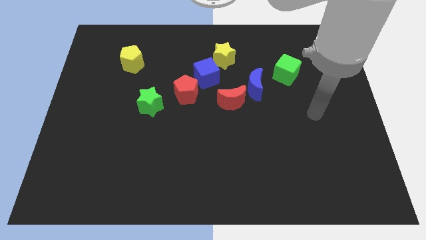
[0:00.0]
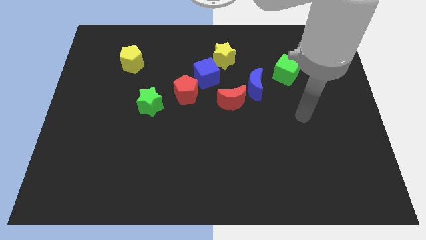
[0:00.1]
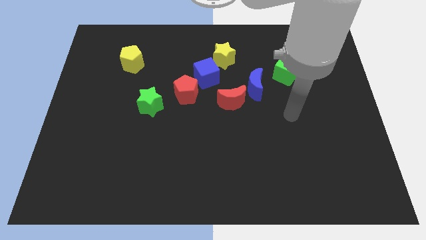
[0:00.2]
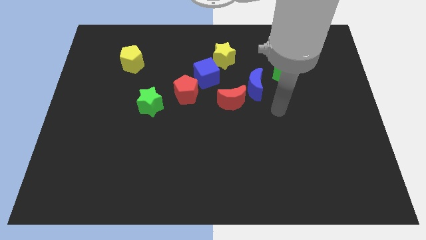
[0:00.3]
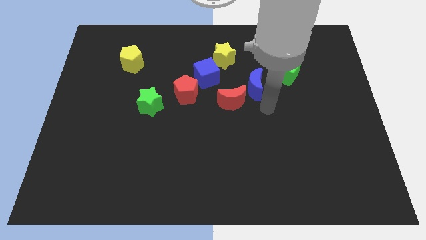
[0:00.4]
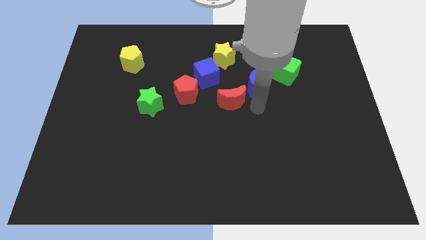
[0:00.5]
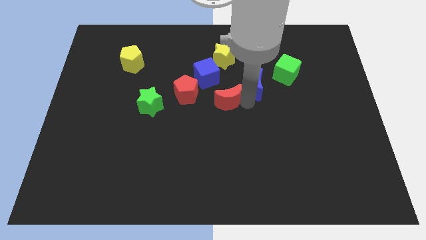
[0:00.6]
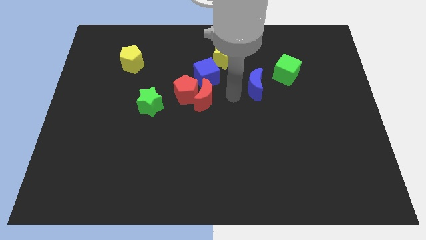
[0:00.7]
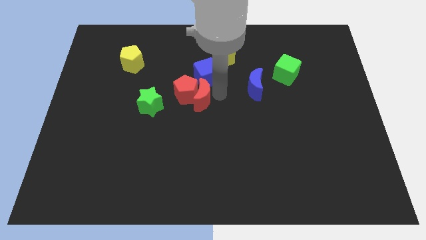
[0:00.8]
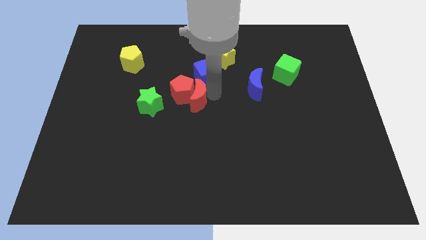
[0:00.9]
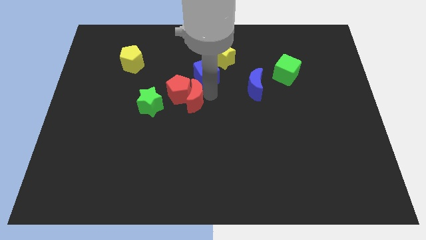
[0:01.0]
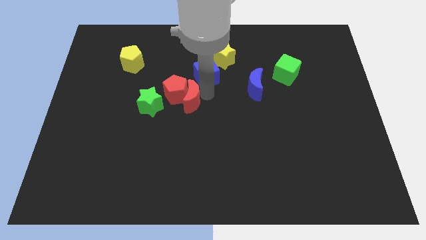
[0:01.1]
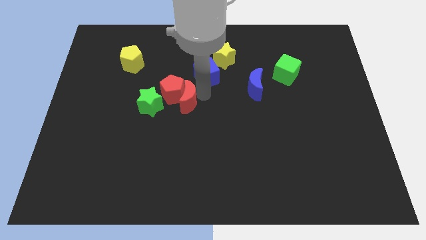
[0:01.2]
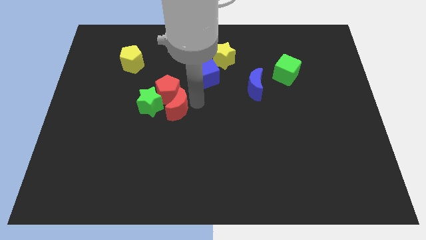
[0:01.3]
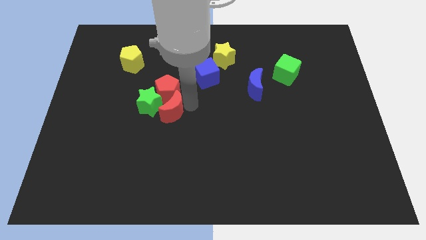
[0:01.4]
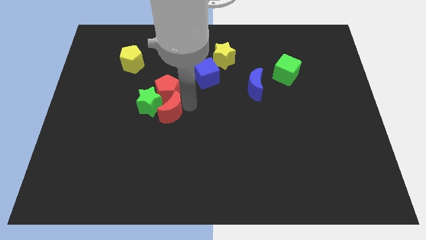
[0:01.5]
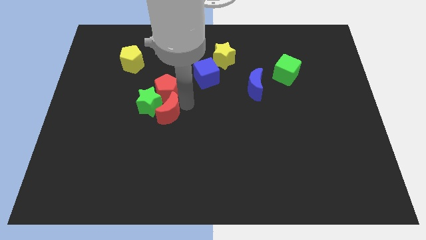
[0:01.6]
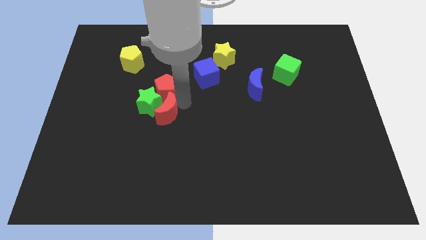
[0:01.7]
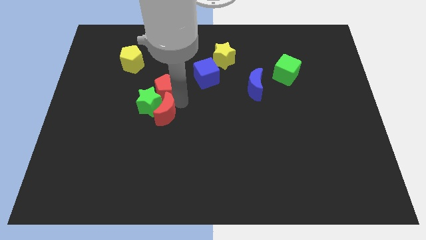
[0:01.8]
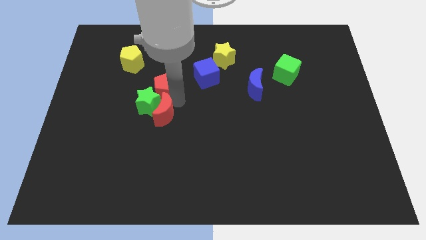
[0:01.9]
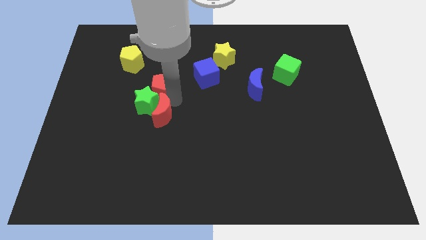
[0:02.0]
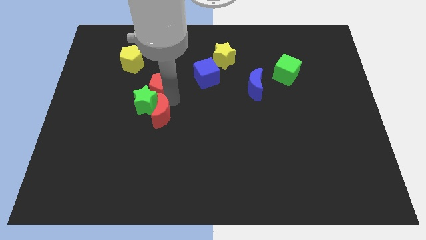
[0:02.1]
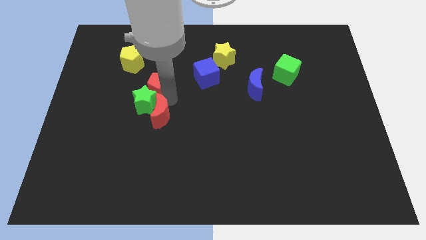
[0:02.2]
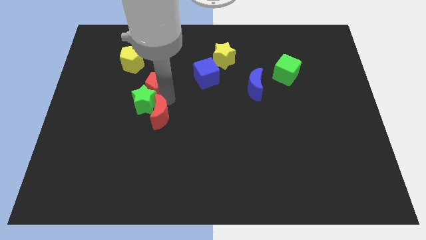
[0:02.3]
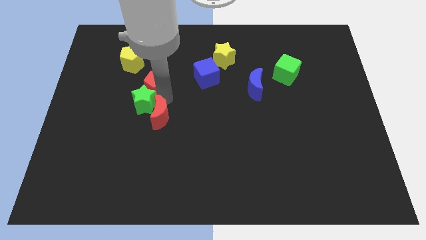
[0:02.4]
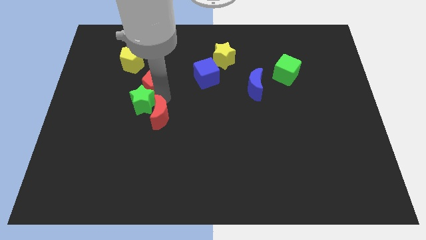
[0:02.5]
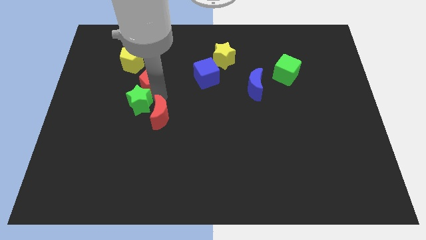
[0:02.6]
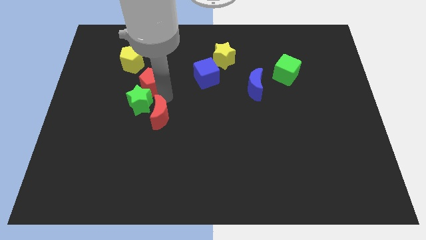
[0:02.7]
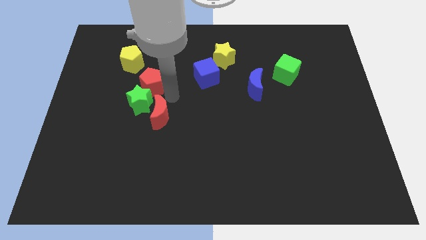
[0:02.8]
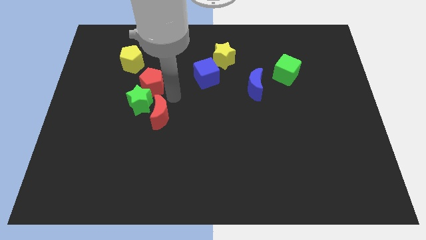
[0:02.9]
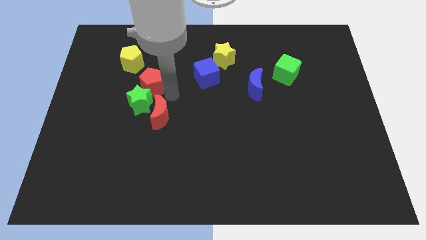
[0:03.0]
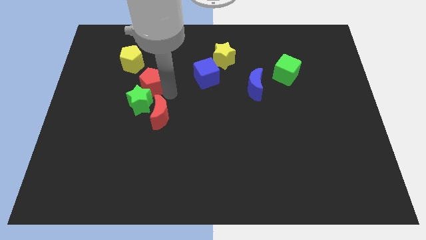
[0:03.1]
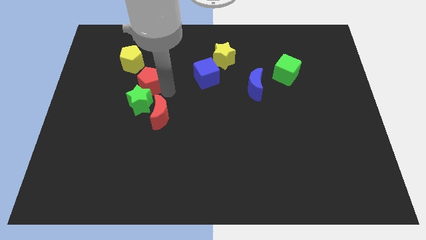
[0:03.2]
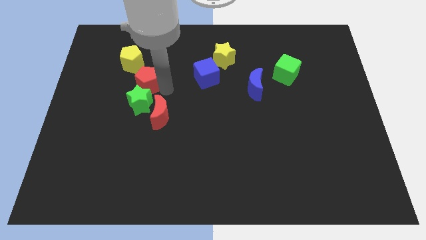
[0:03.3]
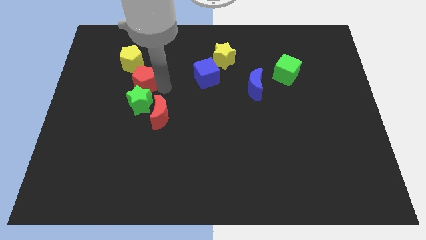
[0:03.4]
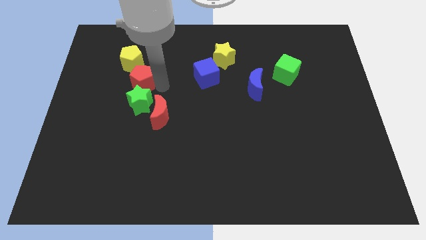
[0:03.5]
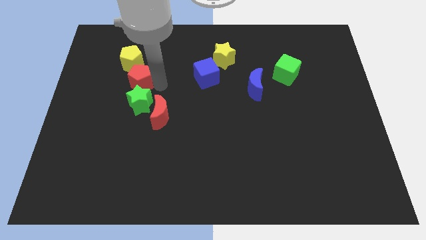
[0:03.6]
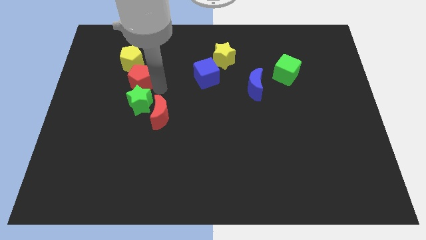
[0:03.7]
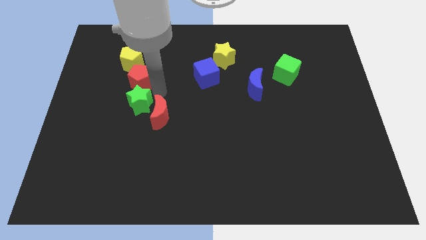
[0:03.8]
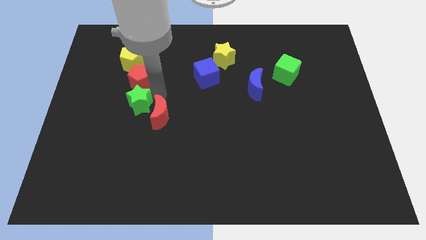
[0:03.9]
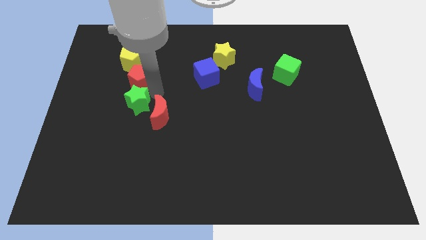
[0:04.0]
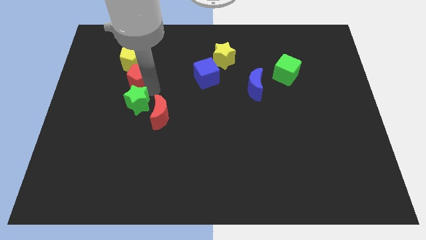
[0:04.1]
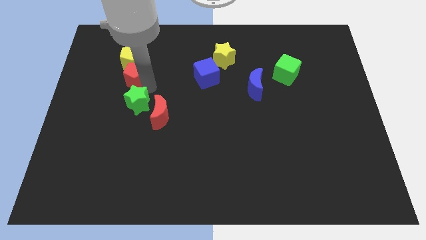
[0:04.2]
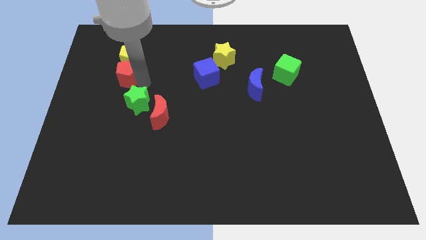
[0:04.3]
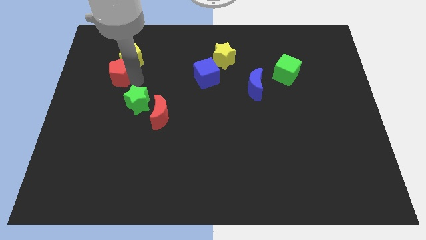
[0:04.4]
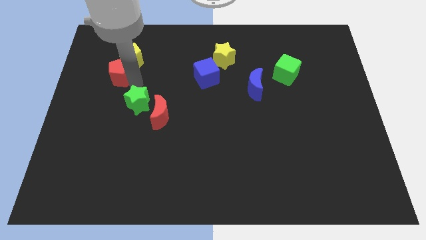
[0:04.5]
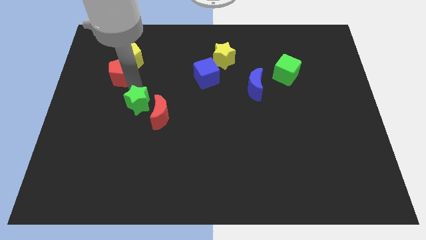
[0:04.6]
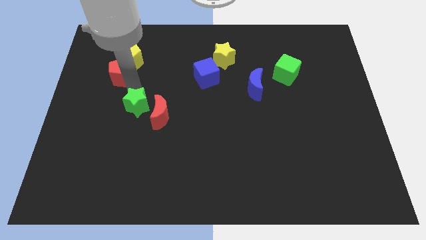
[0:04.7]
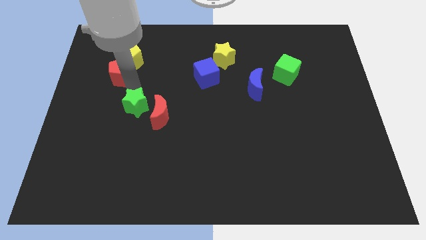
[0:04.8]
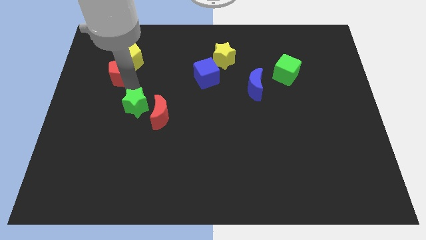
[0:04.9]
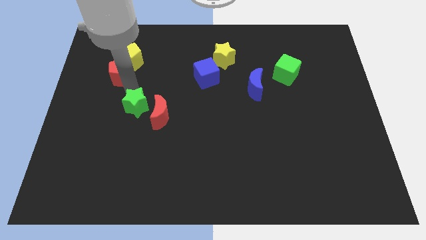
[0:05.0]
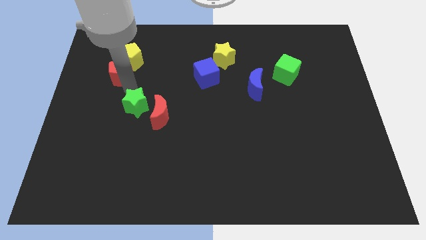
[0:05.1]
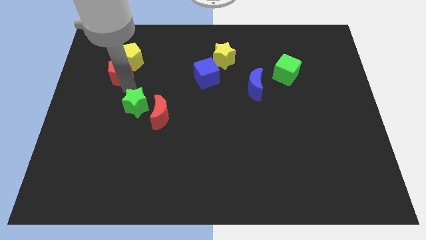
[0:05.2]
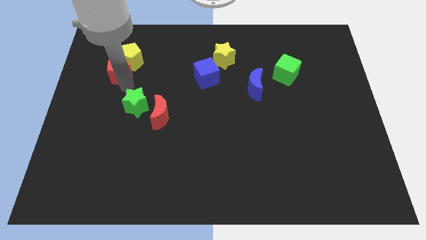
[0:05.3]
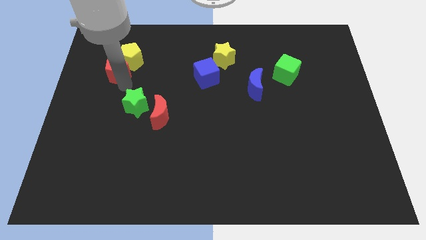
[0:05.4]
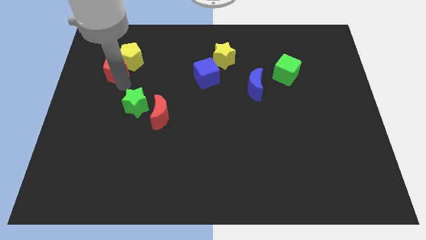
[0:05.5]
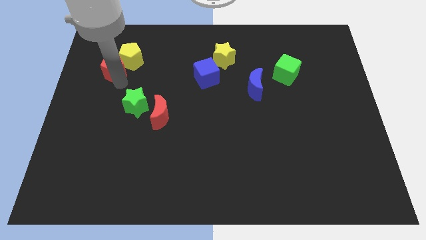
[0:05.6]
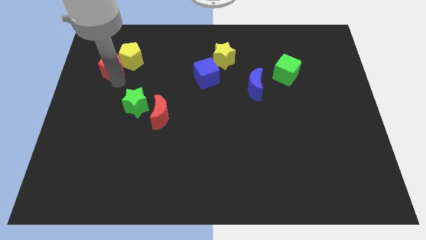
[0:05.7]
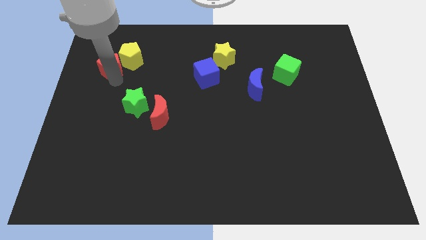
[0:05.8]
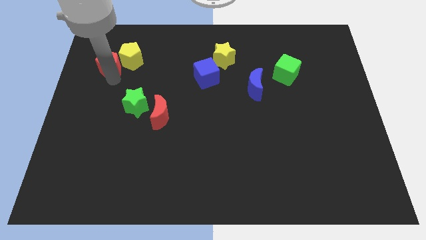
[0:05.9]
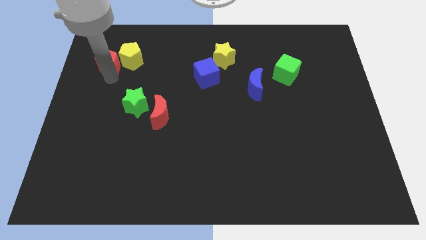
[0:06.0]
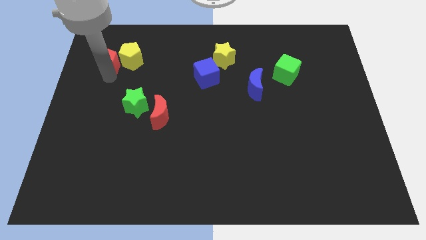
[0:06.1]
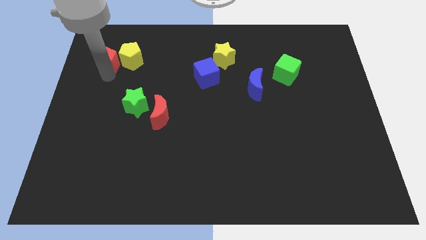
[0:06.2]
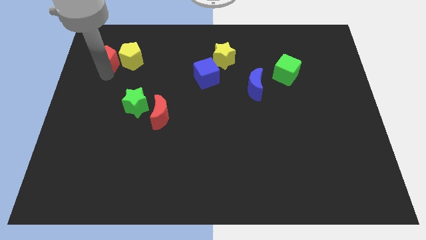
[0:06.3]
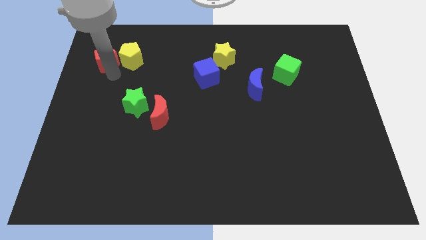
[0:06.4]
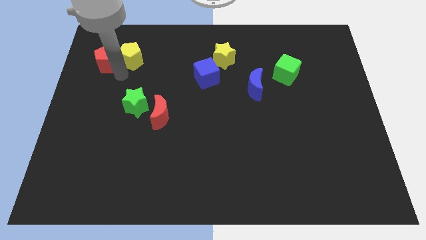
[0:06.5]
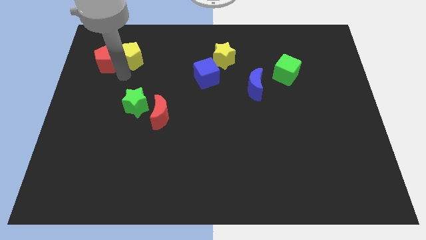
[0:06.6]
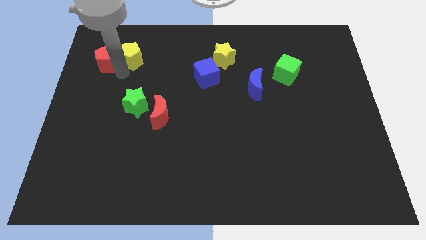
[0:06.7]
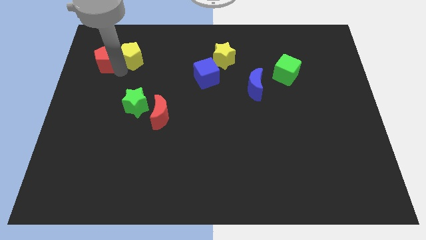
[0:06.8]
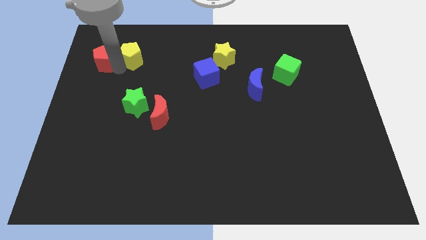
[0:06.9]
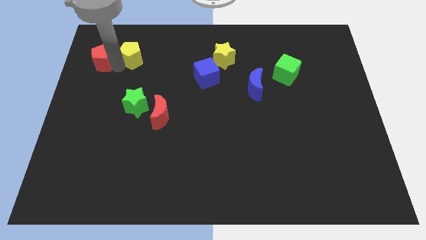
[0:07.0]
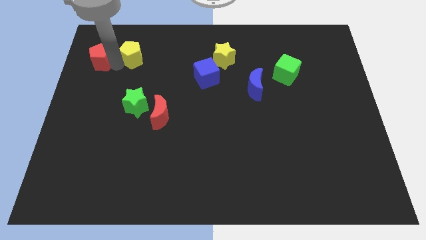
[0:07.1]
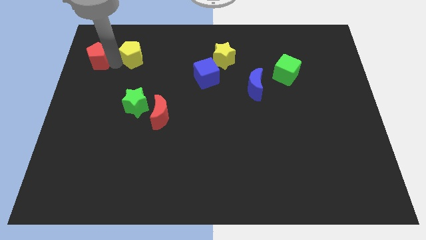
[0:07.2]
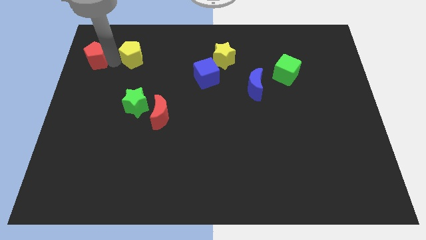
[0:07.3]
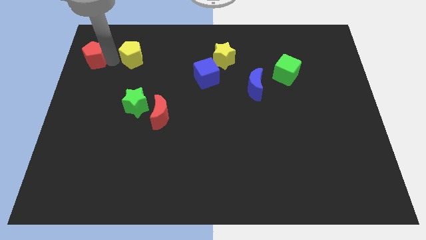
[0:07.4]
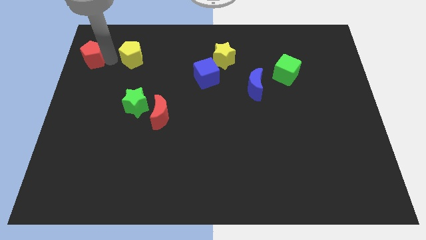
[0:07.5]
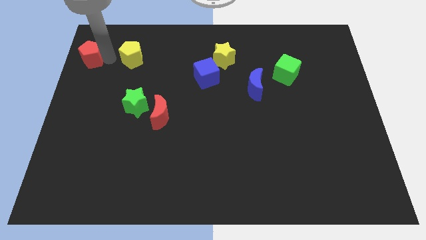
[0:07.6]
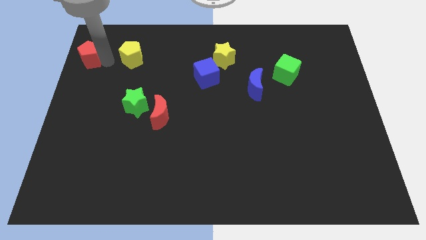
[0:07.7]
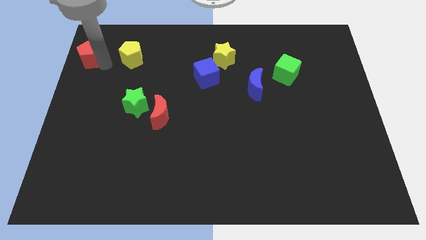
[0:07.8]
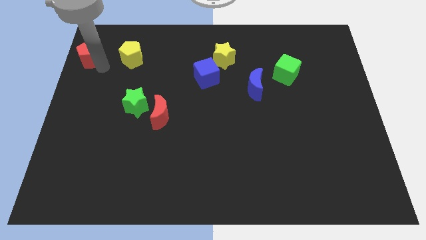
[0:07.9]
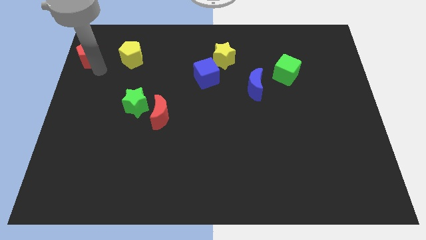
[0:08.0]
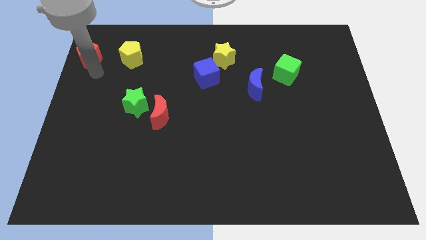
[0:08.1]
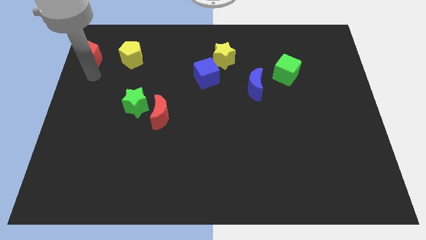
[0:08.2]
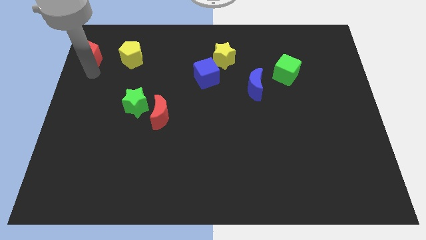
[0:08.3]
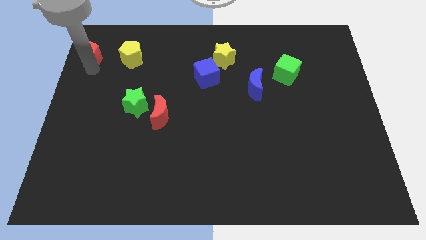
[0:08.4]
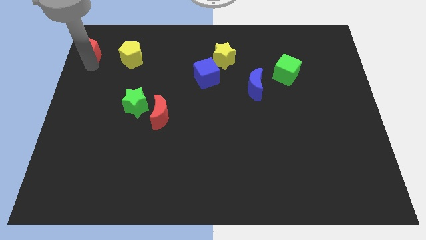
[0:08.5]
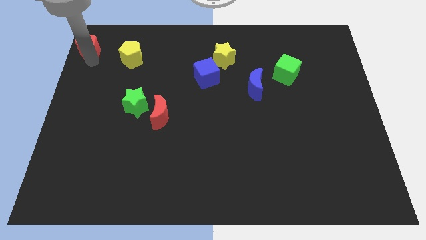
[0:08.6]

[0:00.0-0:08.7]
move the red pentagon to the top left
